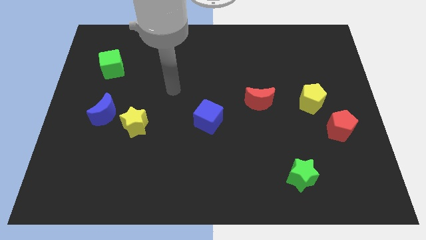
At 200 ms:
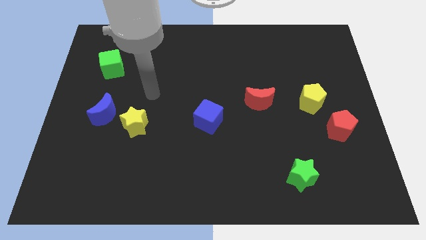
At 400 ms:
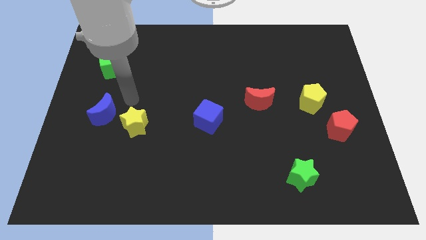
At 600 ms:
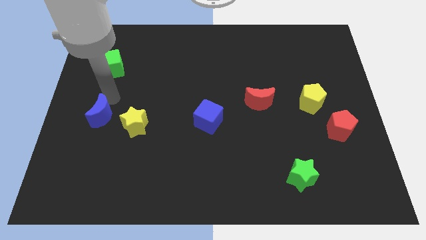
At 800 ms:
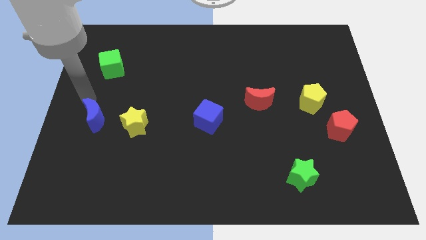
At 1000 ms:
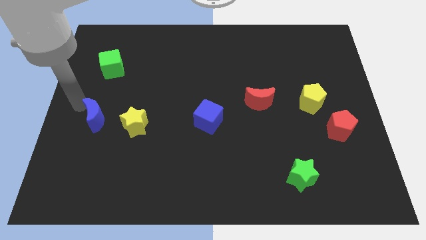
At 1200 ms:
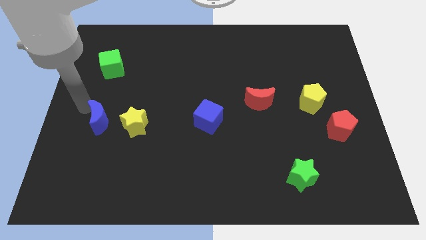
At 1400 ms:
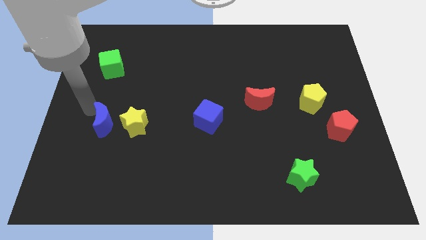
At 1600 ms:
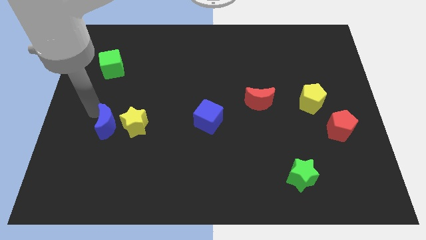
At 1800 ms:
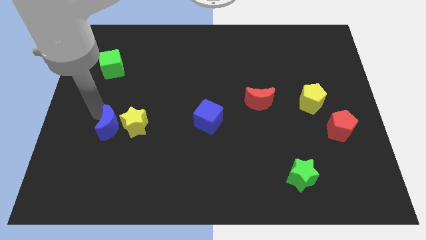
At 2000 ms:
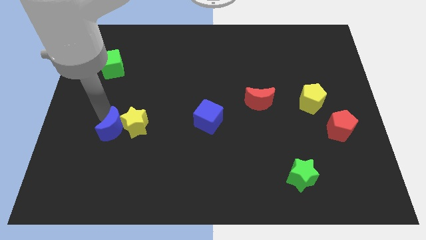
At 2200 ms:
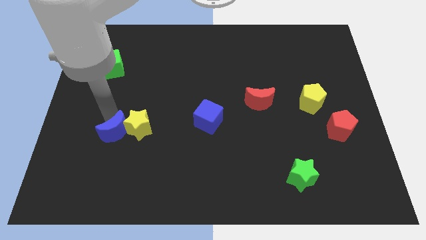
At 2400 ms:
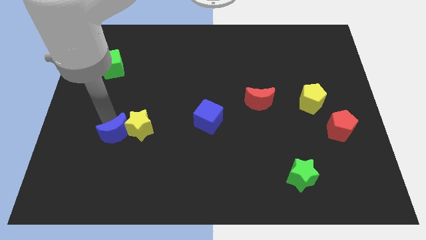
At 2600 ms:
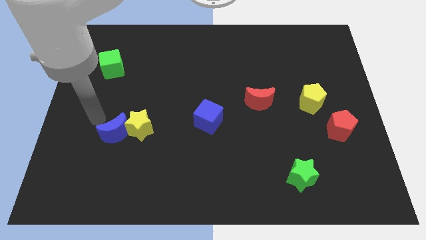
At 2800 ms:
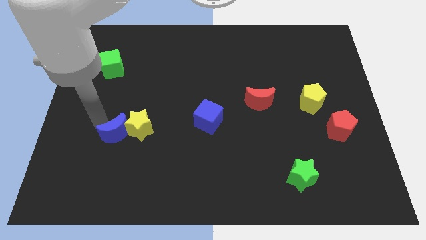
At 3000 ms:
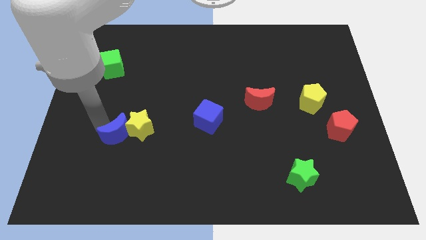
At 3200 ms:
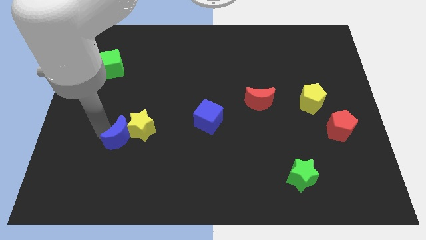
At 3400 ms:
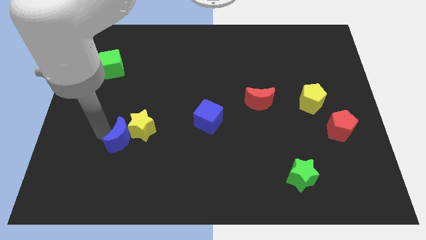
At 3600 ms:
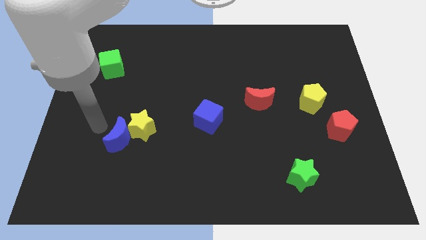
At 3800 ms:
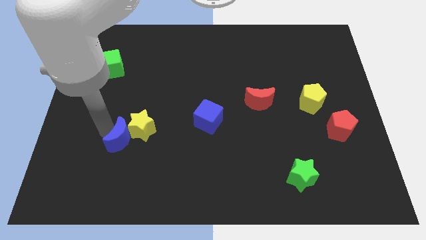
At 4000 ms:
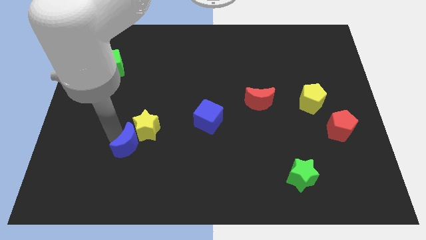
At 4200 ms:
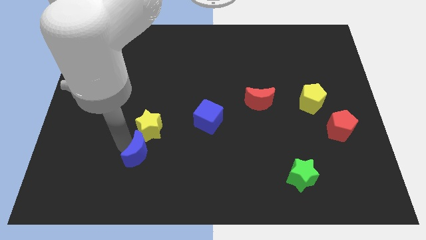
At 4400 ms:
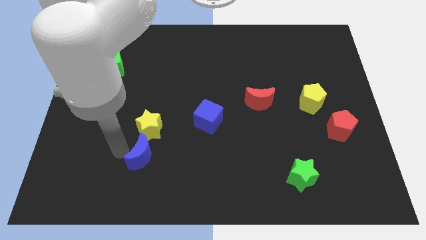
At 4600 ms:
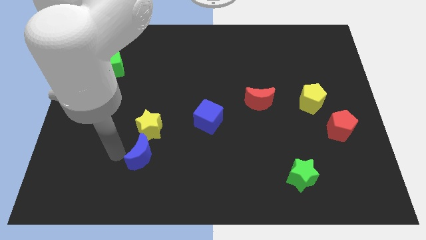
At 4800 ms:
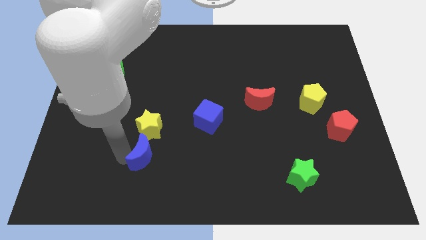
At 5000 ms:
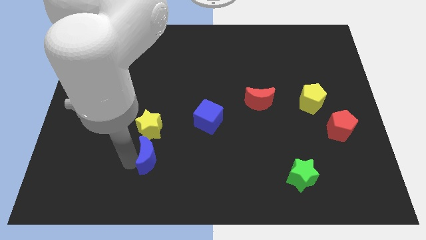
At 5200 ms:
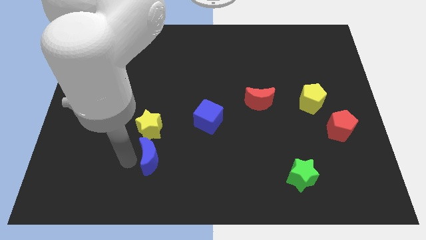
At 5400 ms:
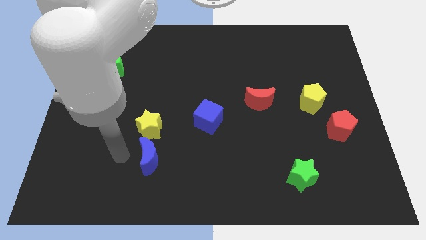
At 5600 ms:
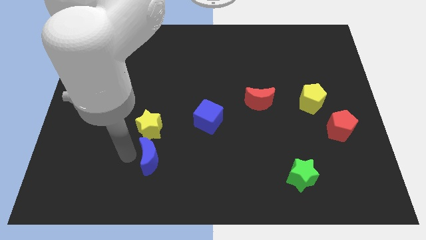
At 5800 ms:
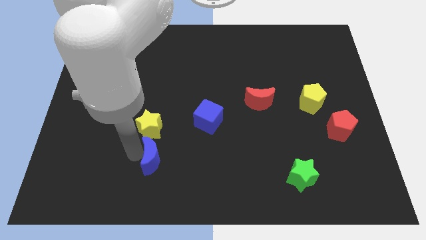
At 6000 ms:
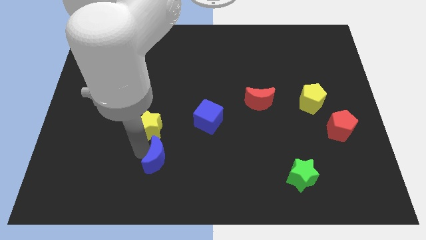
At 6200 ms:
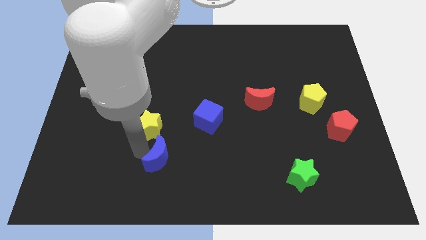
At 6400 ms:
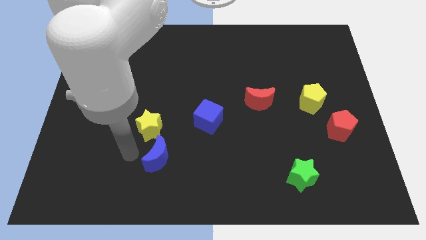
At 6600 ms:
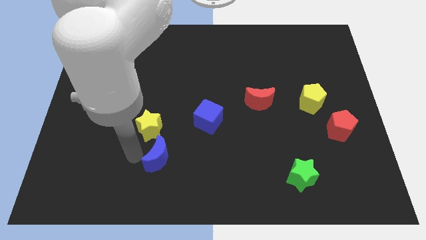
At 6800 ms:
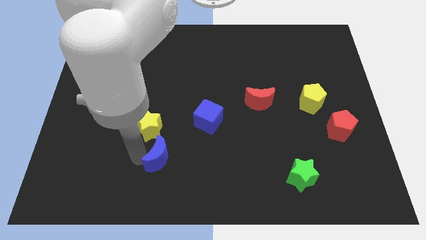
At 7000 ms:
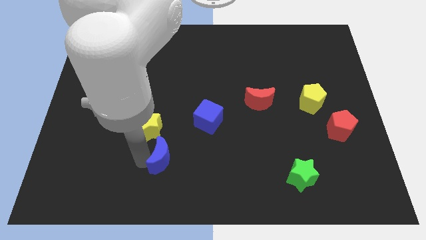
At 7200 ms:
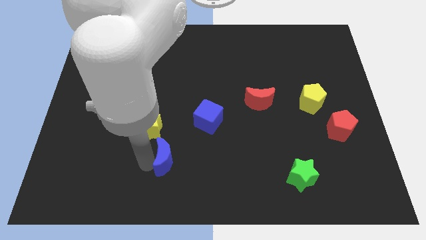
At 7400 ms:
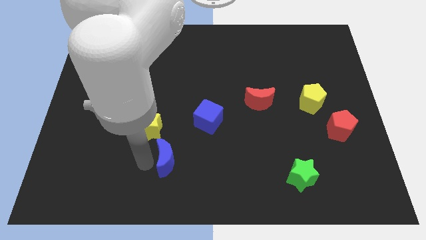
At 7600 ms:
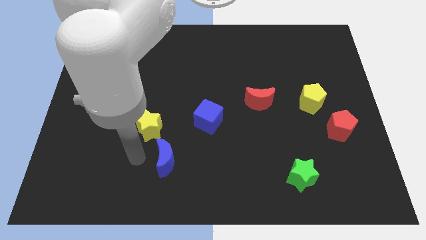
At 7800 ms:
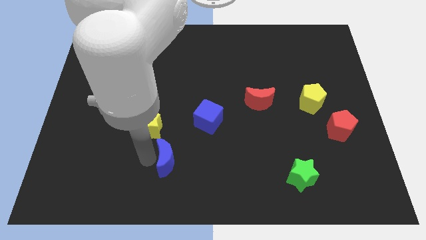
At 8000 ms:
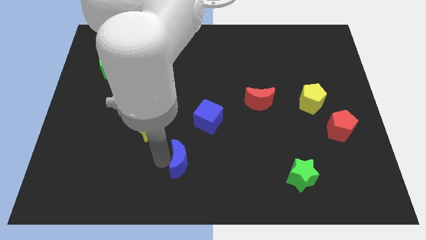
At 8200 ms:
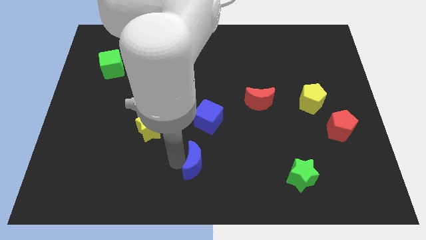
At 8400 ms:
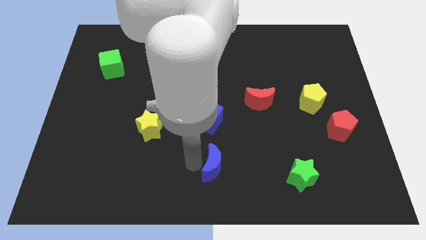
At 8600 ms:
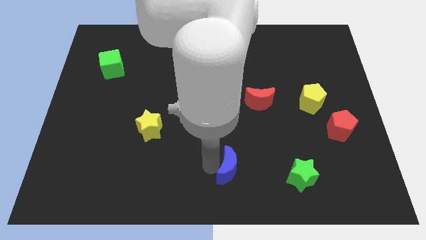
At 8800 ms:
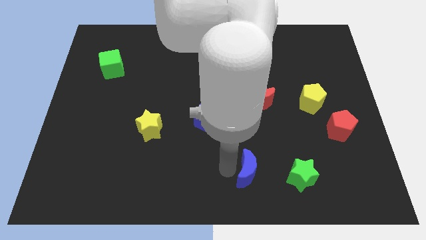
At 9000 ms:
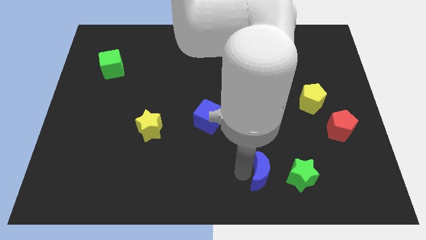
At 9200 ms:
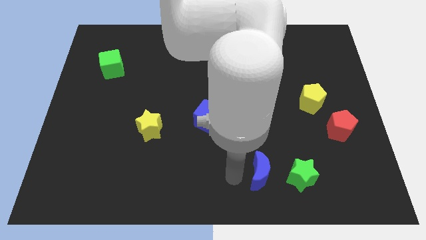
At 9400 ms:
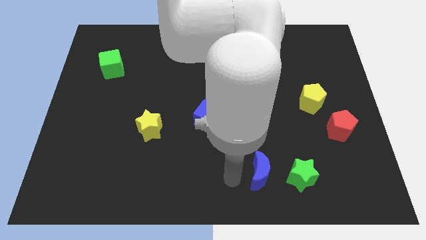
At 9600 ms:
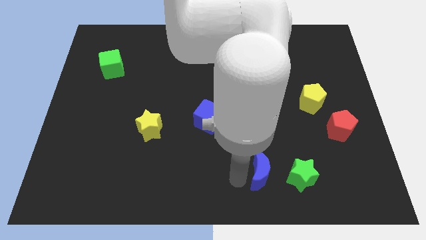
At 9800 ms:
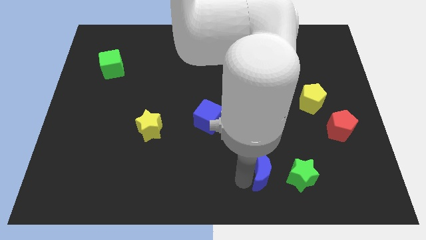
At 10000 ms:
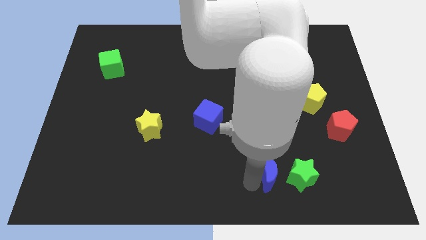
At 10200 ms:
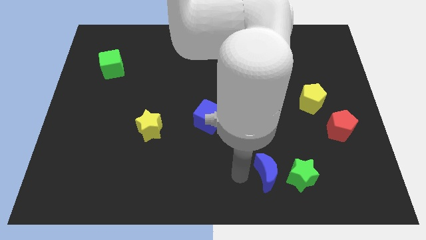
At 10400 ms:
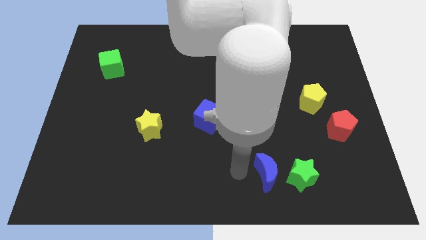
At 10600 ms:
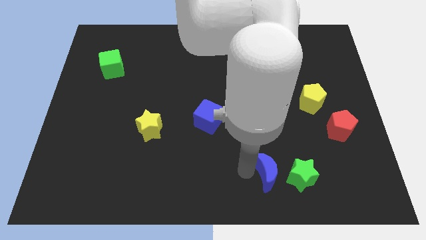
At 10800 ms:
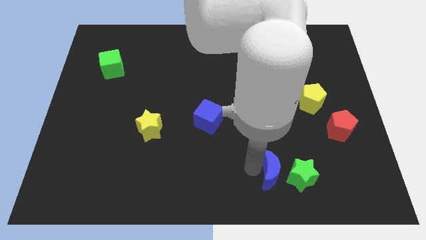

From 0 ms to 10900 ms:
put the blue moon next to the green star

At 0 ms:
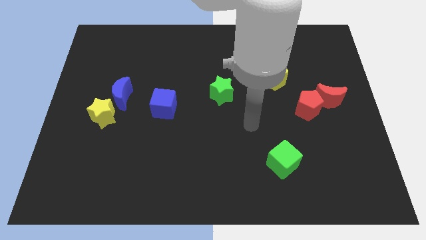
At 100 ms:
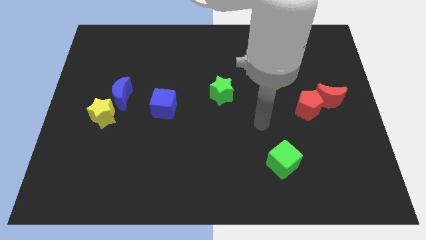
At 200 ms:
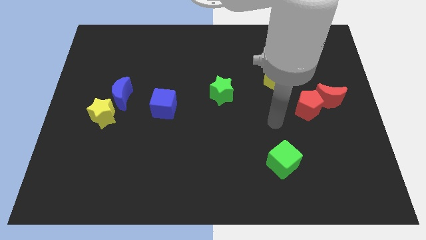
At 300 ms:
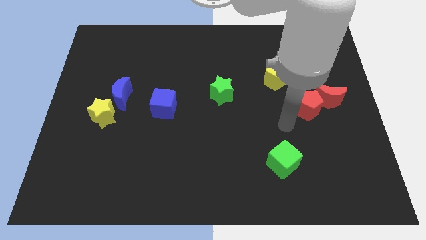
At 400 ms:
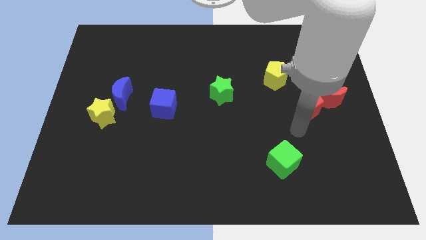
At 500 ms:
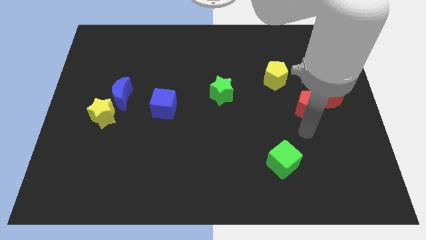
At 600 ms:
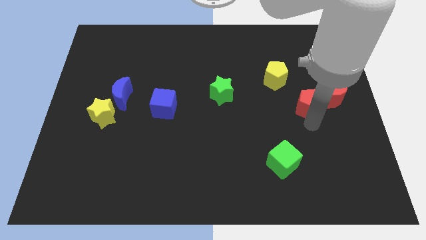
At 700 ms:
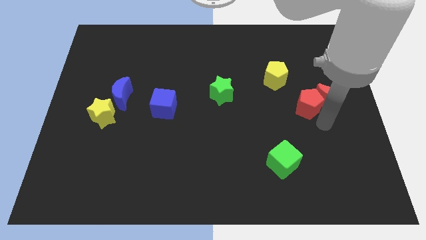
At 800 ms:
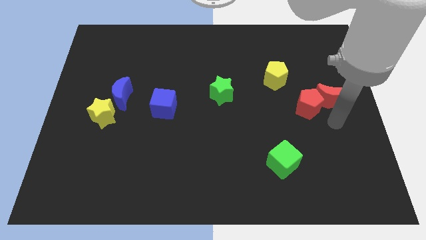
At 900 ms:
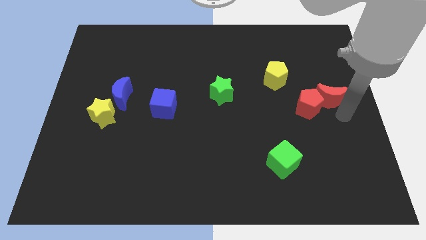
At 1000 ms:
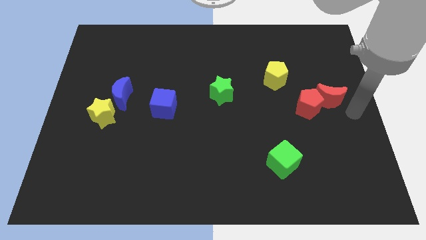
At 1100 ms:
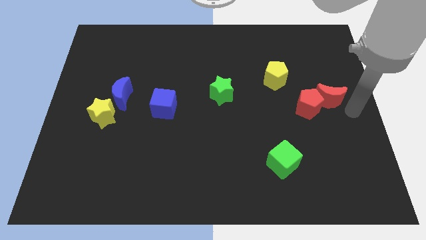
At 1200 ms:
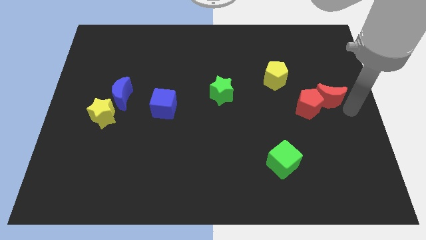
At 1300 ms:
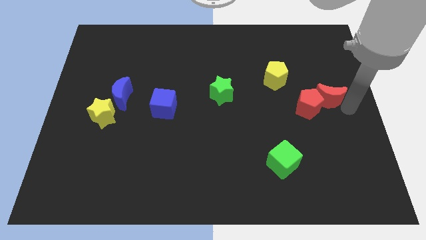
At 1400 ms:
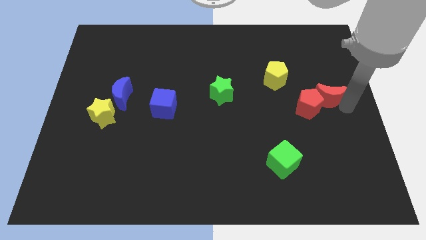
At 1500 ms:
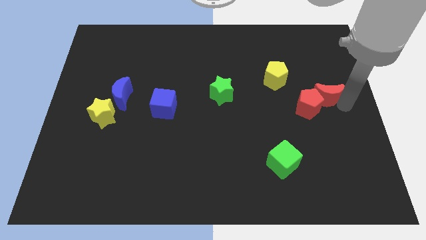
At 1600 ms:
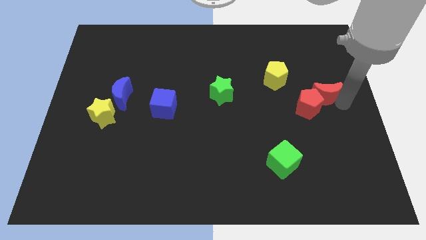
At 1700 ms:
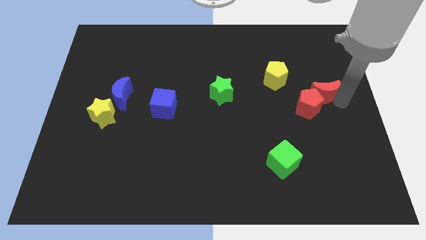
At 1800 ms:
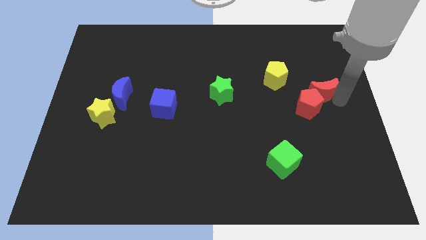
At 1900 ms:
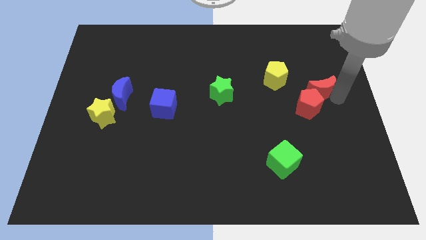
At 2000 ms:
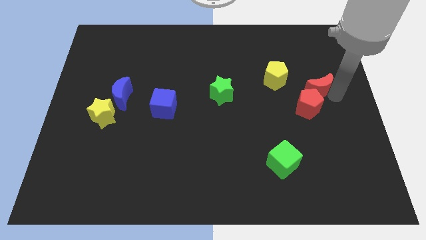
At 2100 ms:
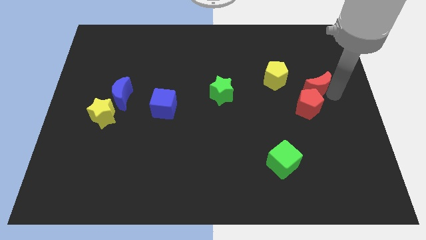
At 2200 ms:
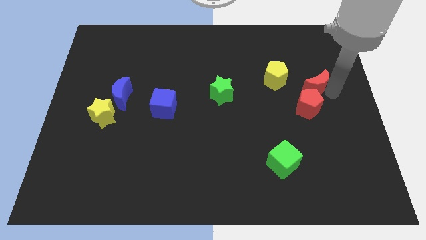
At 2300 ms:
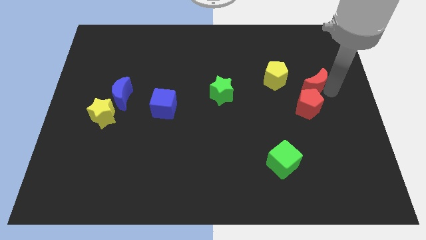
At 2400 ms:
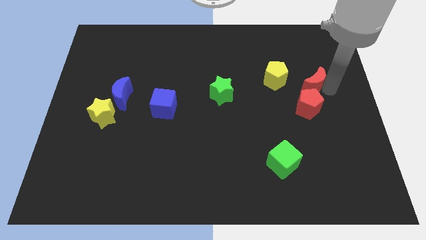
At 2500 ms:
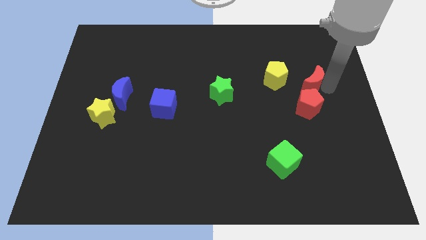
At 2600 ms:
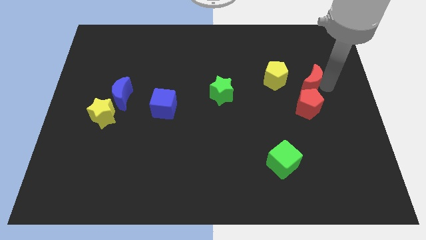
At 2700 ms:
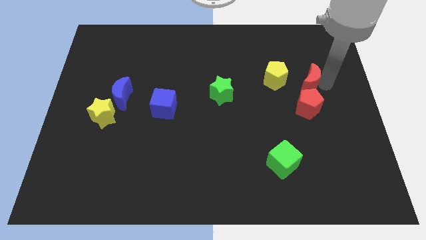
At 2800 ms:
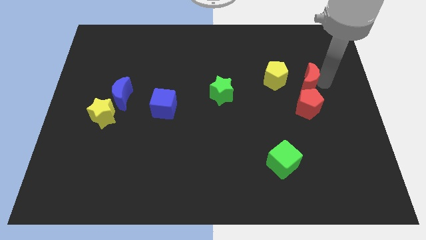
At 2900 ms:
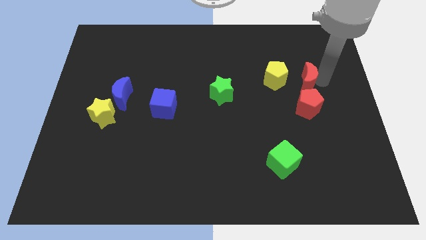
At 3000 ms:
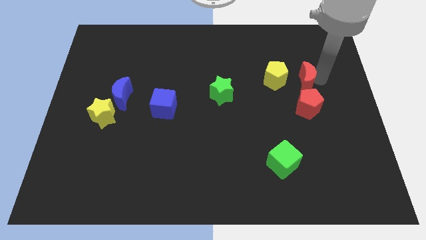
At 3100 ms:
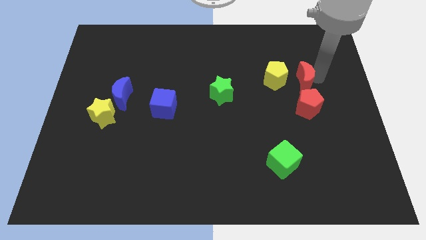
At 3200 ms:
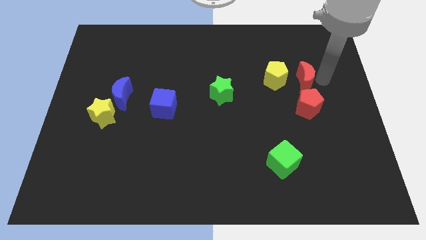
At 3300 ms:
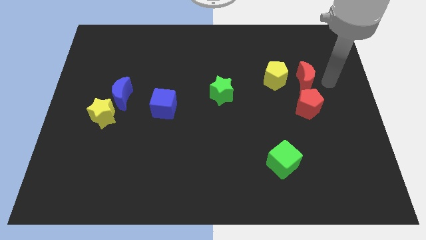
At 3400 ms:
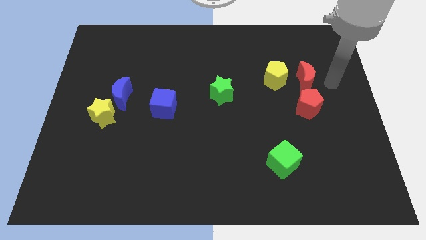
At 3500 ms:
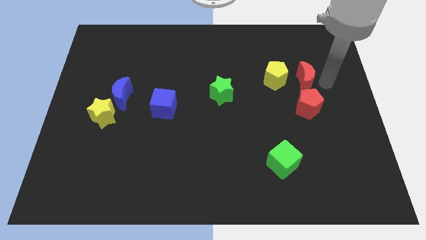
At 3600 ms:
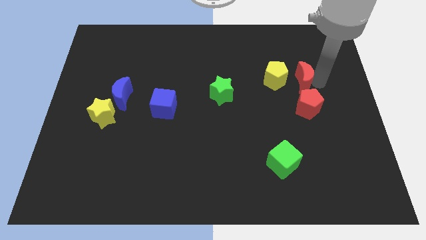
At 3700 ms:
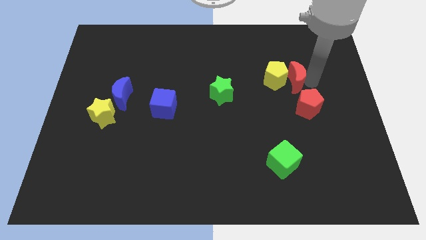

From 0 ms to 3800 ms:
move the red moon next to the yellow pentagon
